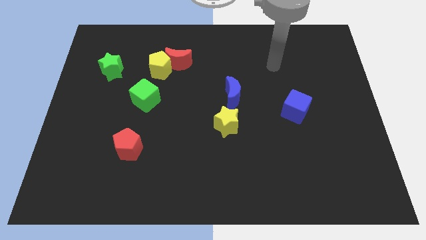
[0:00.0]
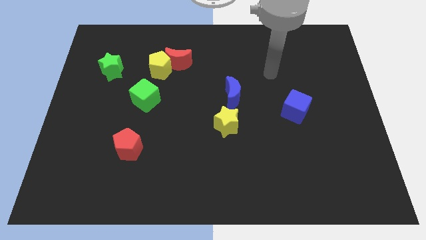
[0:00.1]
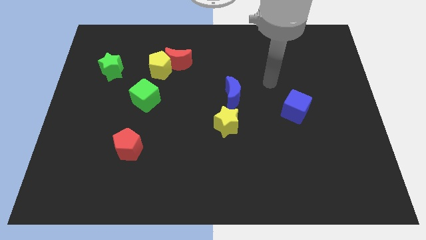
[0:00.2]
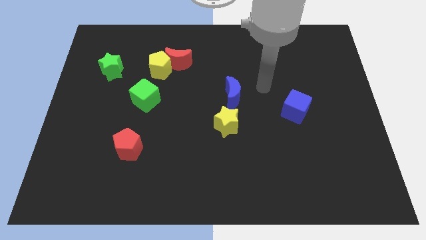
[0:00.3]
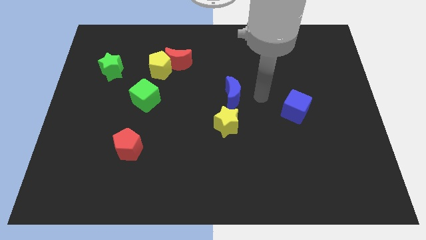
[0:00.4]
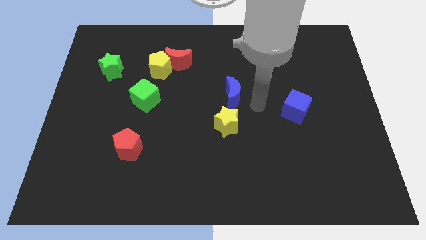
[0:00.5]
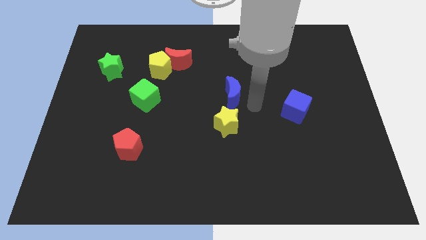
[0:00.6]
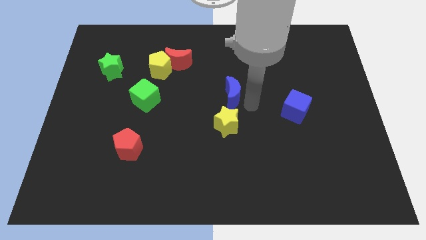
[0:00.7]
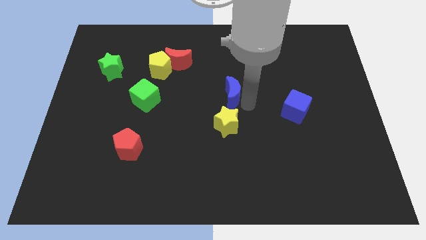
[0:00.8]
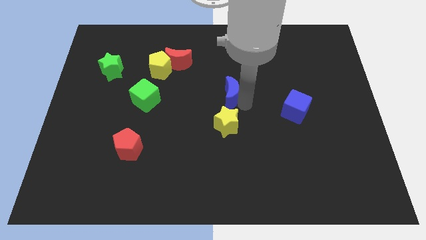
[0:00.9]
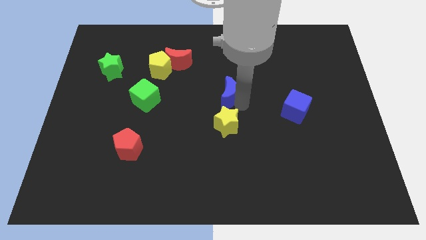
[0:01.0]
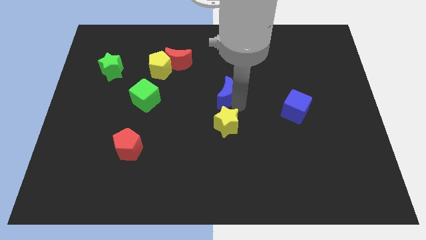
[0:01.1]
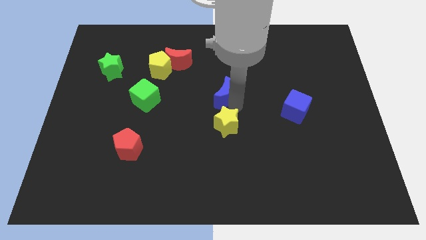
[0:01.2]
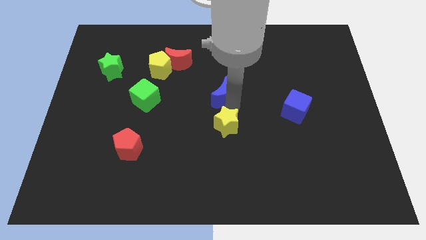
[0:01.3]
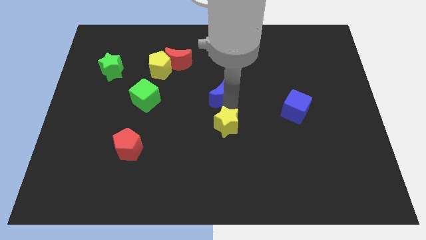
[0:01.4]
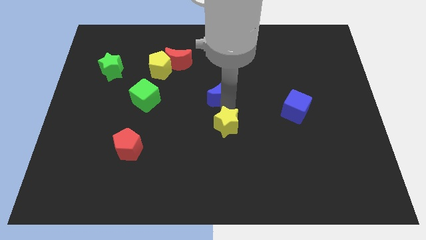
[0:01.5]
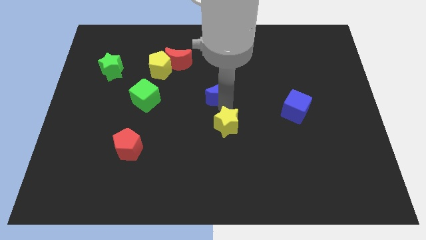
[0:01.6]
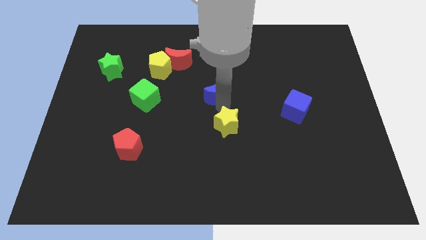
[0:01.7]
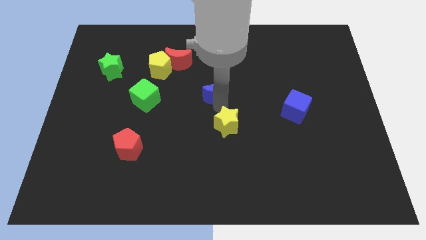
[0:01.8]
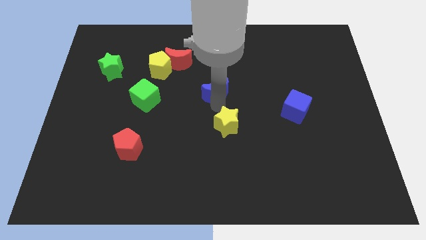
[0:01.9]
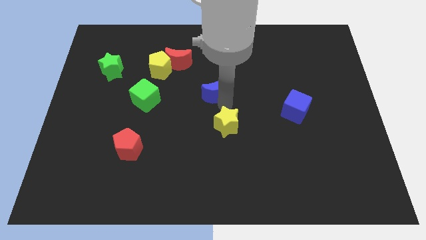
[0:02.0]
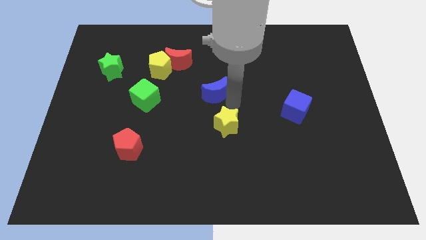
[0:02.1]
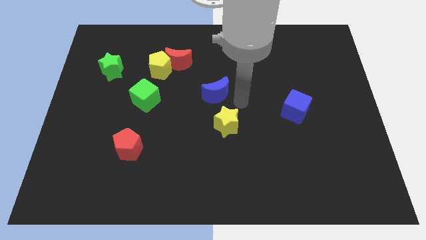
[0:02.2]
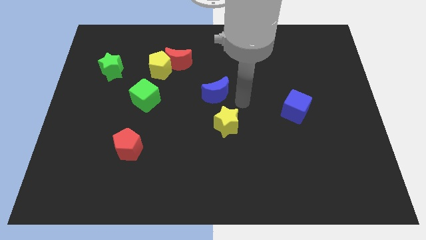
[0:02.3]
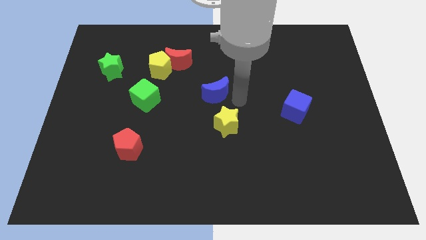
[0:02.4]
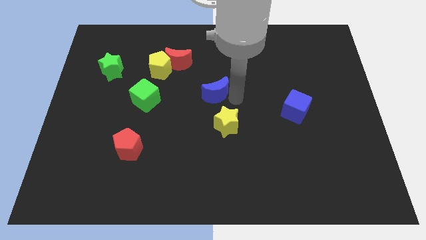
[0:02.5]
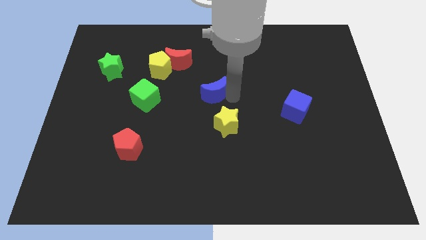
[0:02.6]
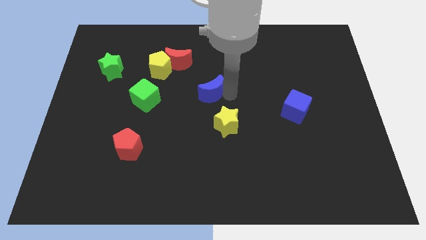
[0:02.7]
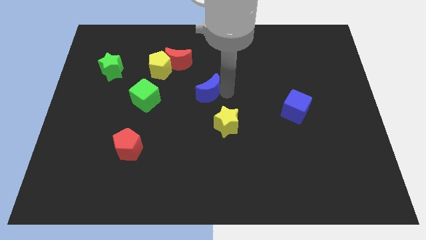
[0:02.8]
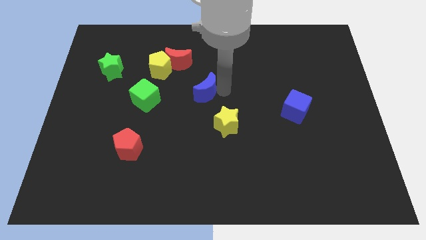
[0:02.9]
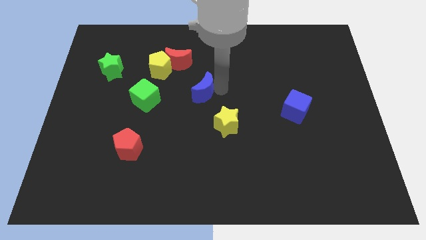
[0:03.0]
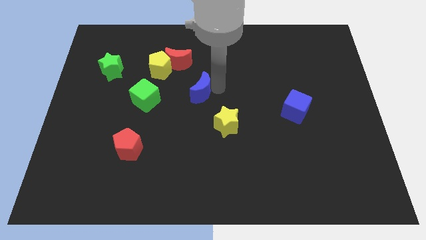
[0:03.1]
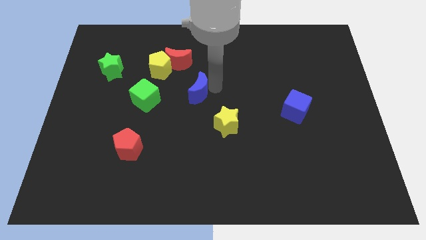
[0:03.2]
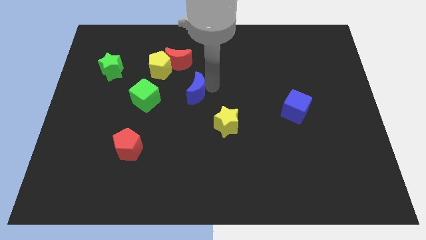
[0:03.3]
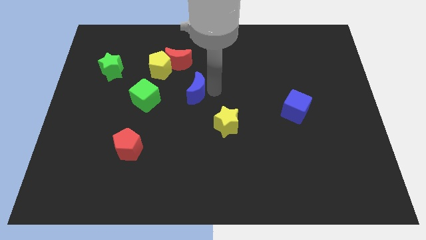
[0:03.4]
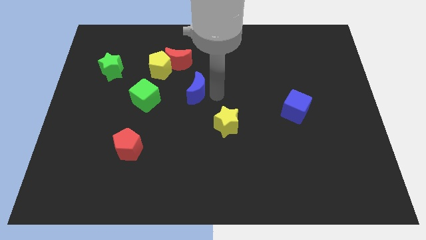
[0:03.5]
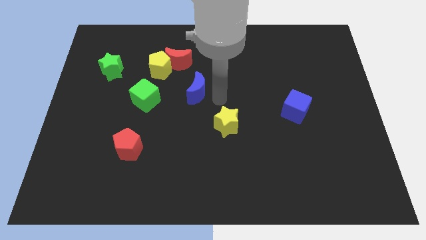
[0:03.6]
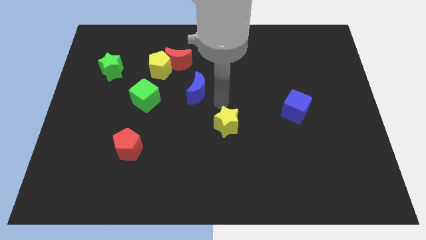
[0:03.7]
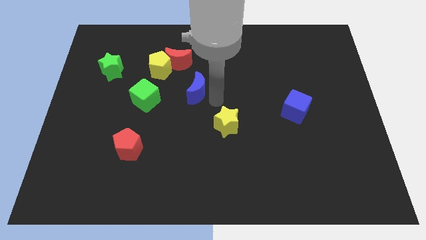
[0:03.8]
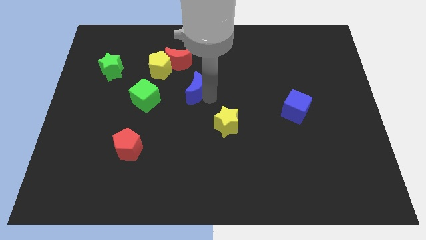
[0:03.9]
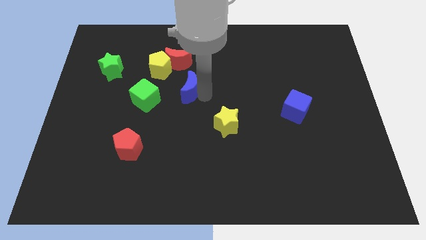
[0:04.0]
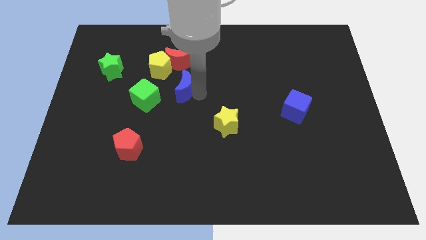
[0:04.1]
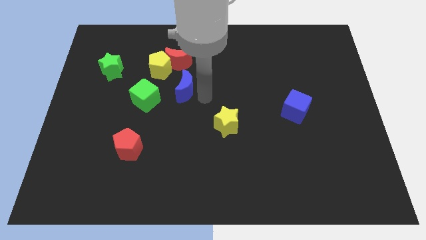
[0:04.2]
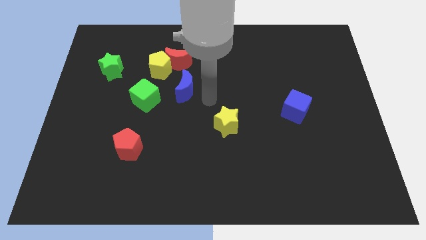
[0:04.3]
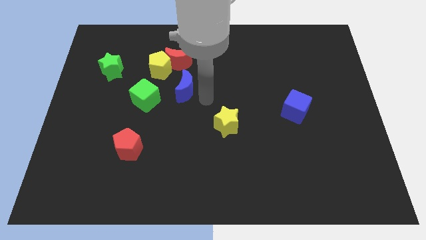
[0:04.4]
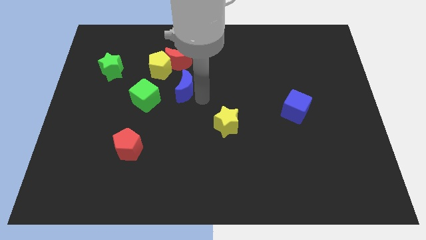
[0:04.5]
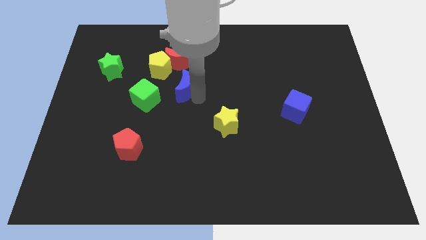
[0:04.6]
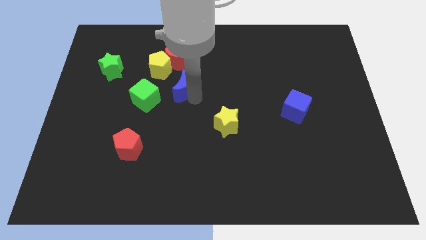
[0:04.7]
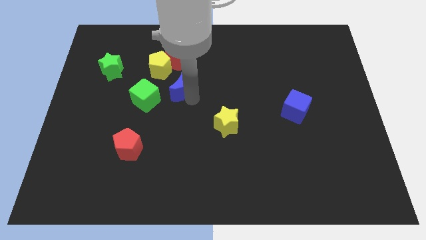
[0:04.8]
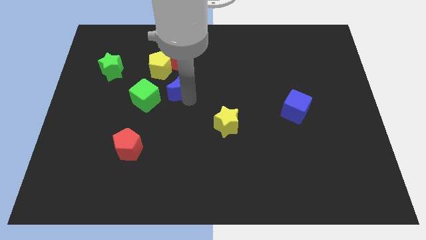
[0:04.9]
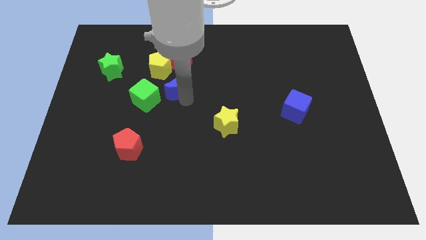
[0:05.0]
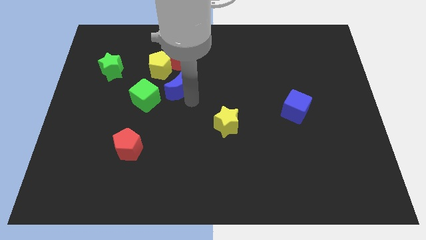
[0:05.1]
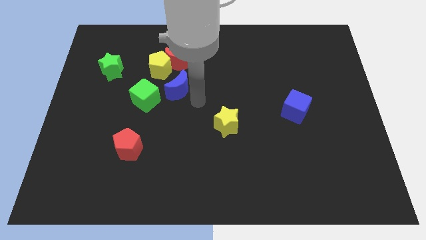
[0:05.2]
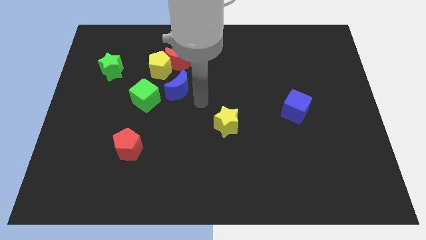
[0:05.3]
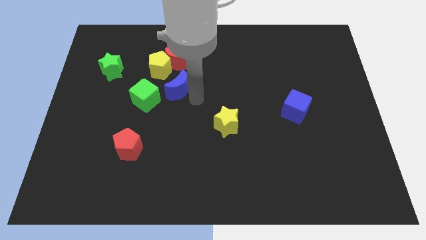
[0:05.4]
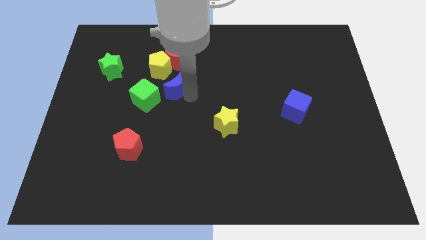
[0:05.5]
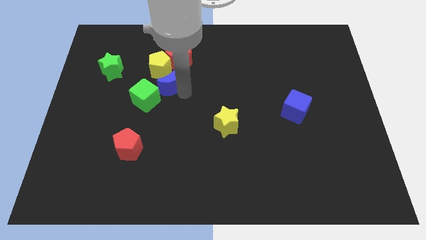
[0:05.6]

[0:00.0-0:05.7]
push the blue moon diagonally down and to the left of the red moon

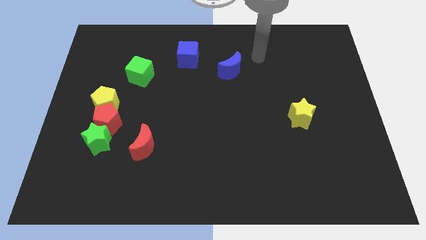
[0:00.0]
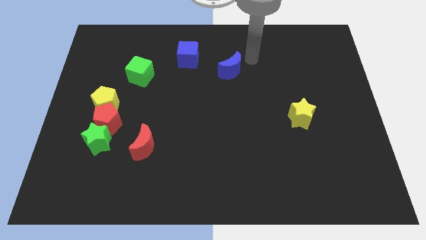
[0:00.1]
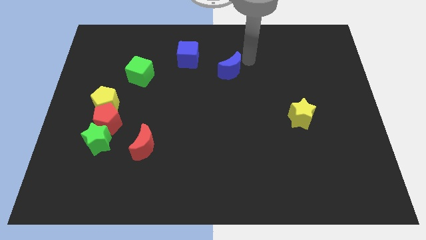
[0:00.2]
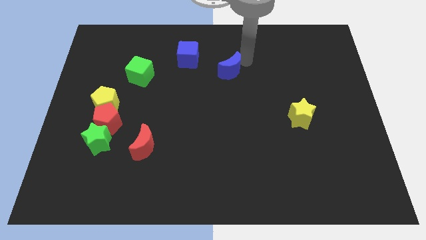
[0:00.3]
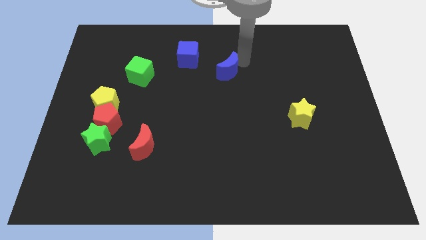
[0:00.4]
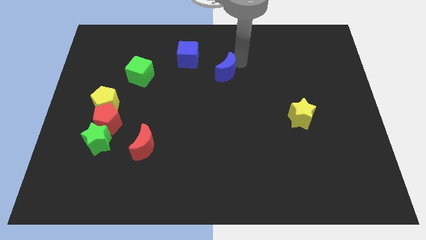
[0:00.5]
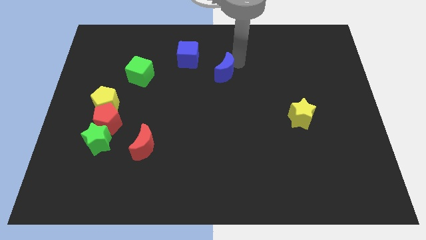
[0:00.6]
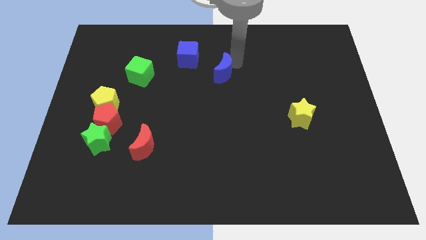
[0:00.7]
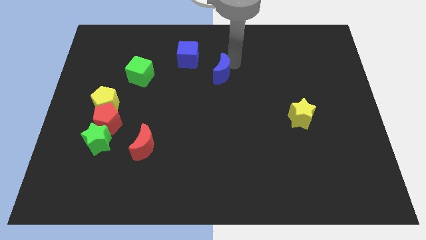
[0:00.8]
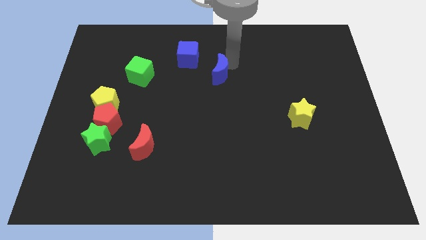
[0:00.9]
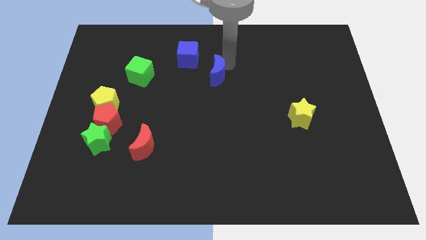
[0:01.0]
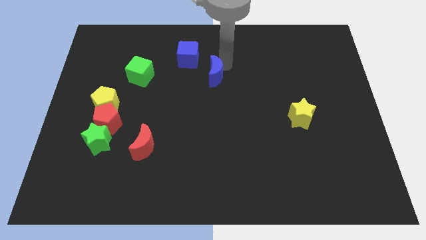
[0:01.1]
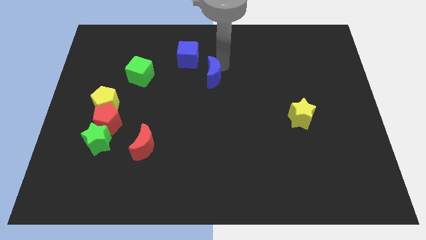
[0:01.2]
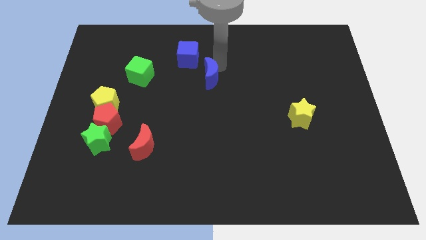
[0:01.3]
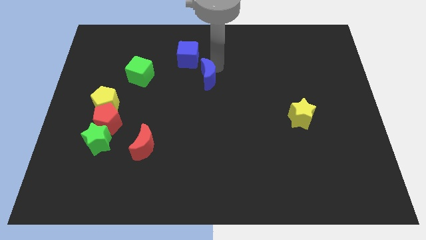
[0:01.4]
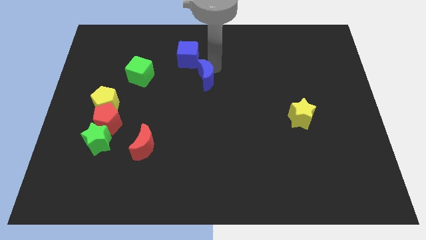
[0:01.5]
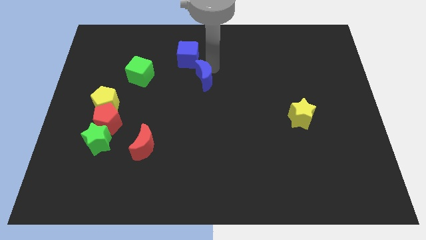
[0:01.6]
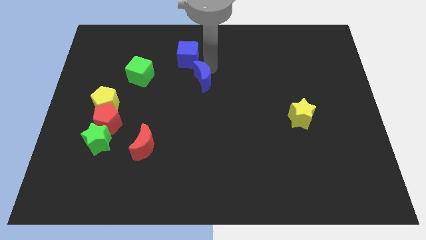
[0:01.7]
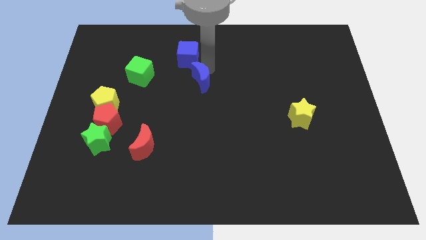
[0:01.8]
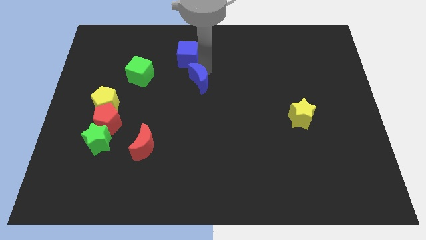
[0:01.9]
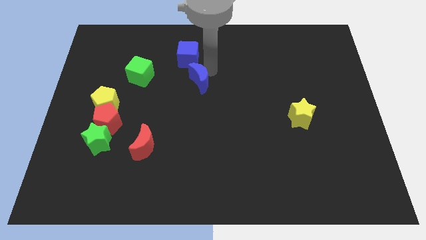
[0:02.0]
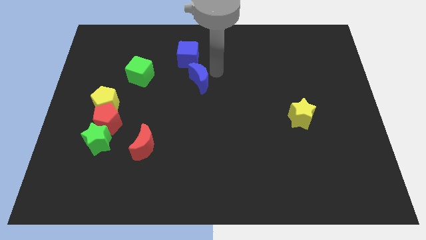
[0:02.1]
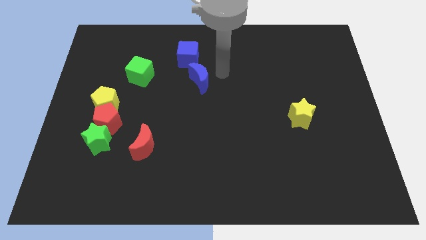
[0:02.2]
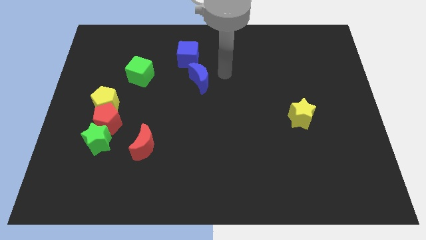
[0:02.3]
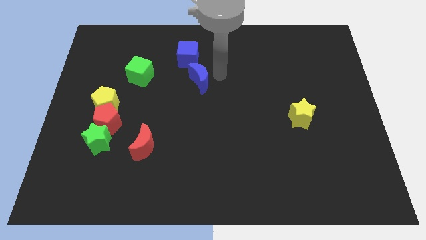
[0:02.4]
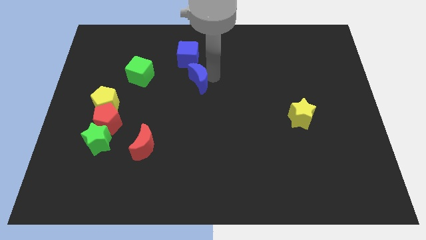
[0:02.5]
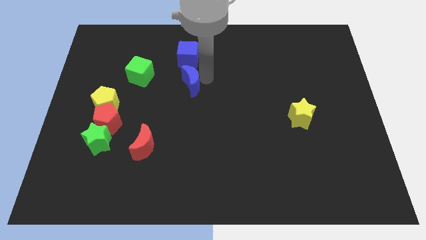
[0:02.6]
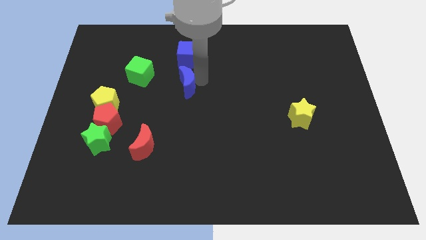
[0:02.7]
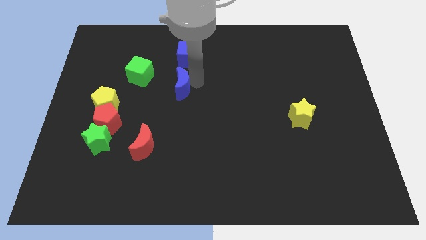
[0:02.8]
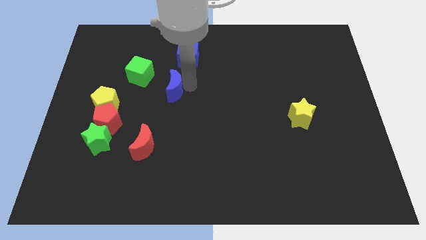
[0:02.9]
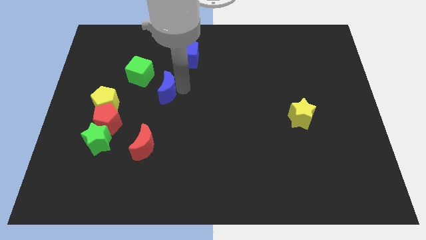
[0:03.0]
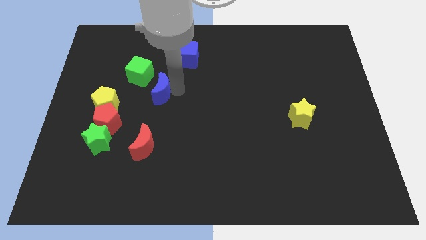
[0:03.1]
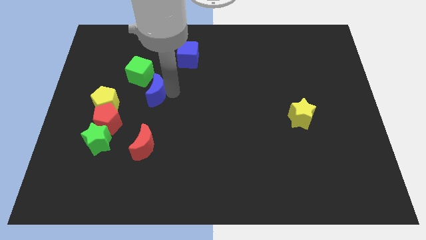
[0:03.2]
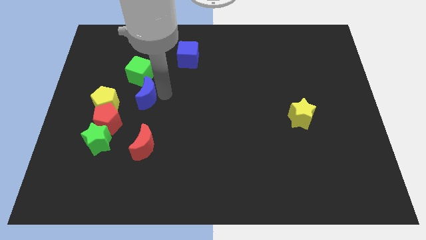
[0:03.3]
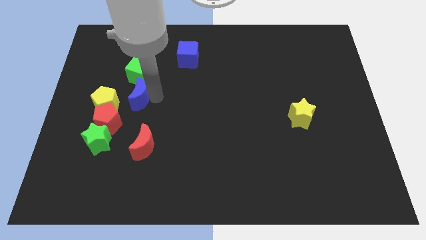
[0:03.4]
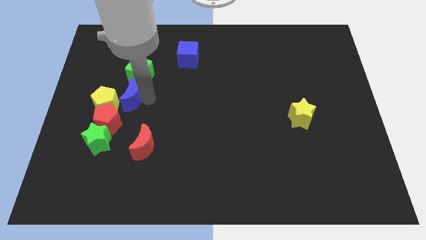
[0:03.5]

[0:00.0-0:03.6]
slide the blue moon to the top of the red pentagon
